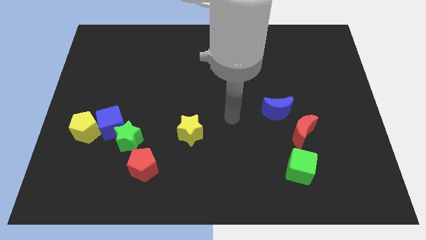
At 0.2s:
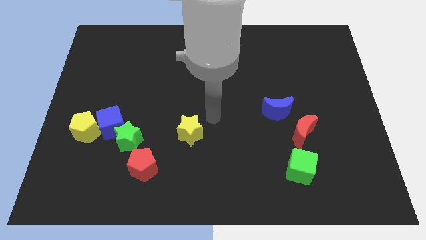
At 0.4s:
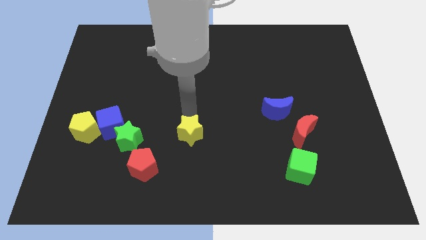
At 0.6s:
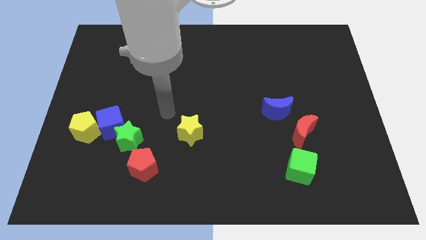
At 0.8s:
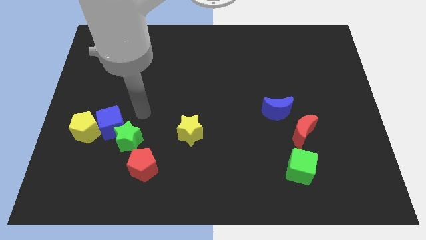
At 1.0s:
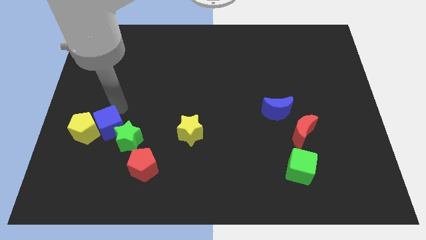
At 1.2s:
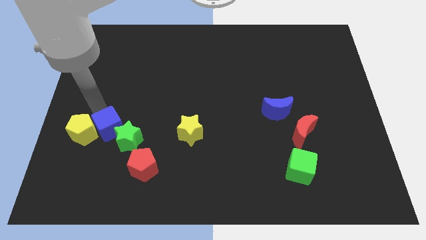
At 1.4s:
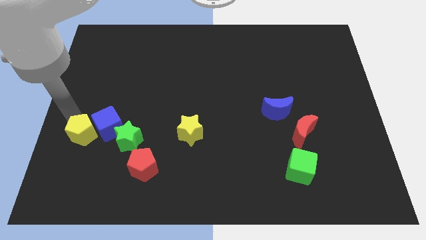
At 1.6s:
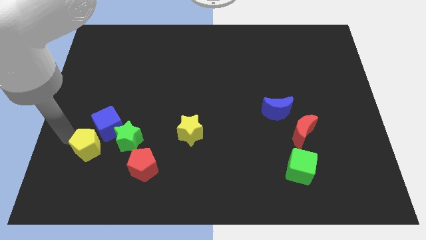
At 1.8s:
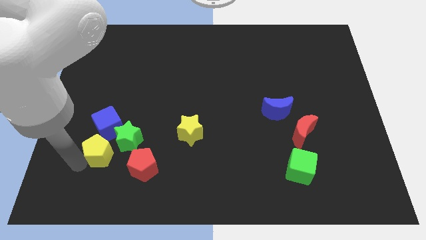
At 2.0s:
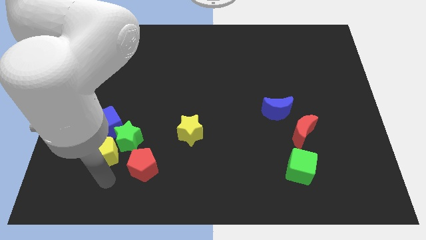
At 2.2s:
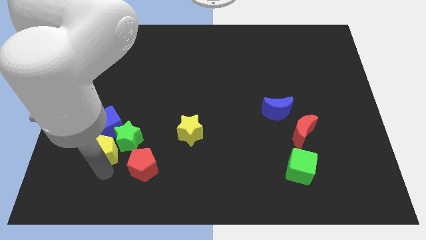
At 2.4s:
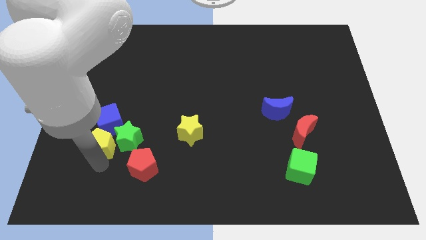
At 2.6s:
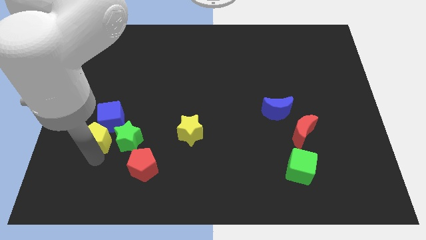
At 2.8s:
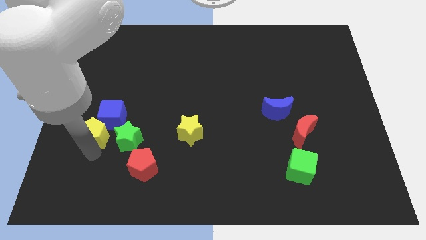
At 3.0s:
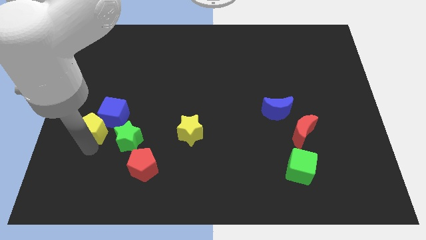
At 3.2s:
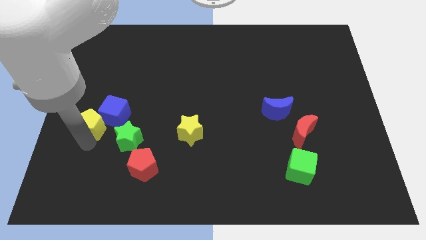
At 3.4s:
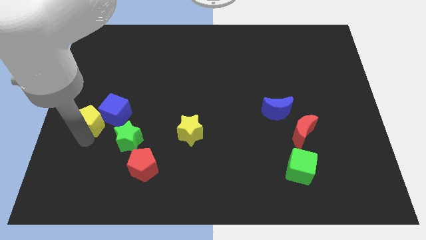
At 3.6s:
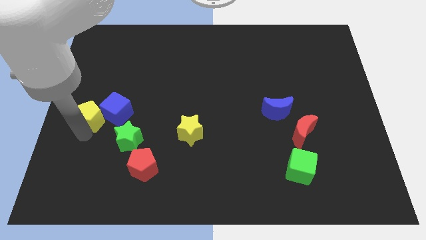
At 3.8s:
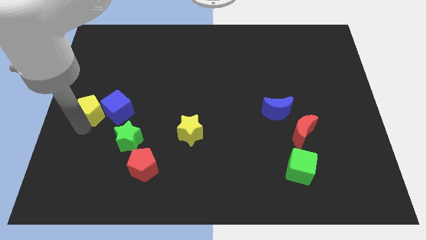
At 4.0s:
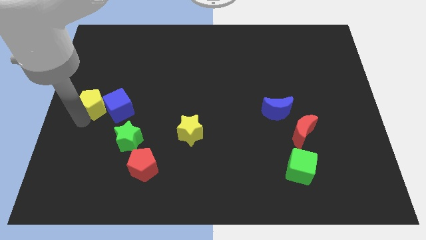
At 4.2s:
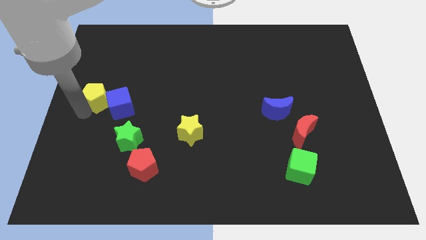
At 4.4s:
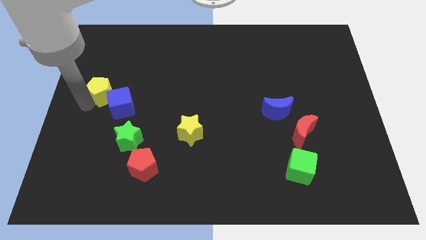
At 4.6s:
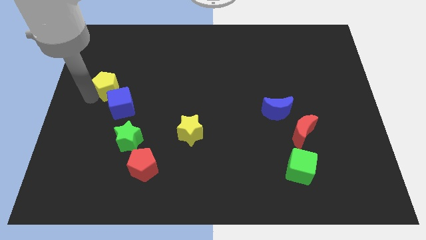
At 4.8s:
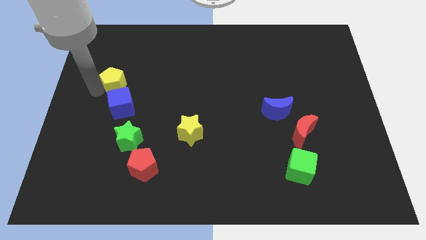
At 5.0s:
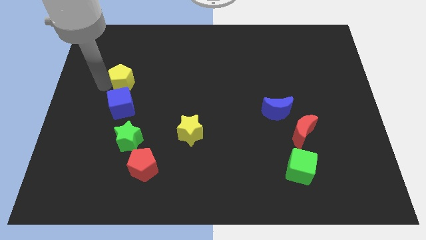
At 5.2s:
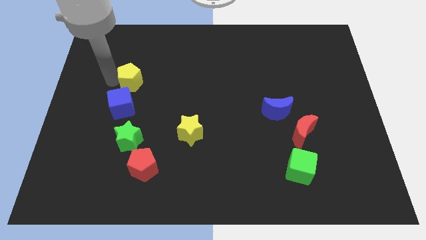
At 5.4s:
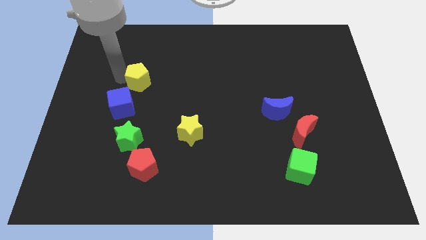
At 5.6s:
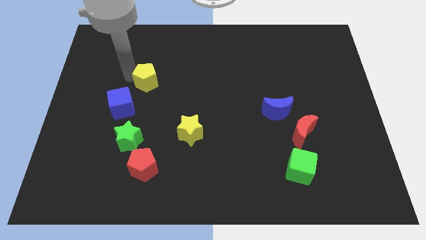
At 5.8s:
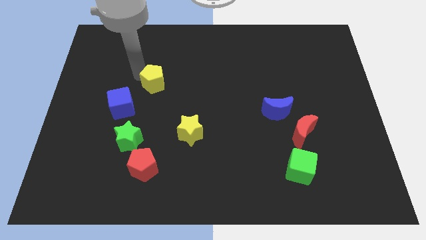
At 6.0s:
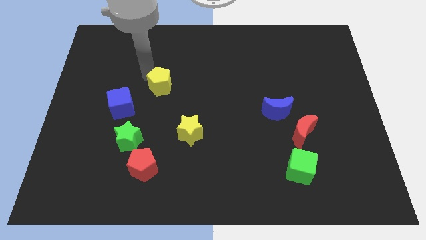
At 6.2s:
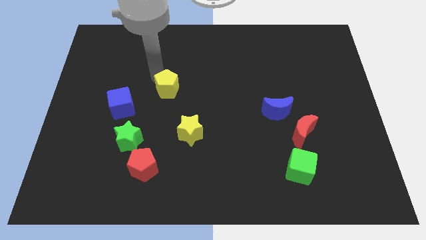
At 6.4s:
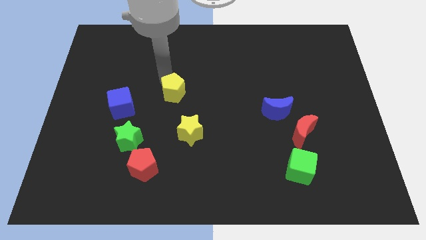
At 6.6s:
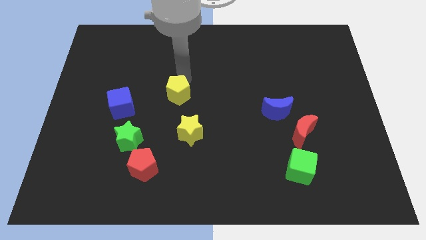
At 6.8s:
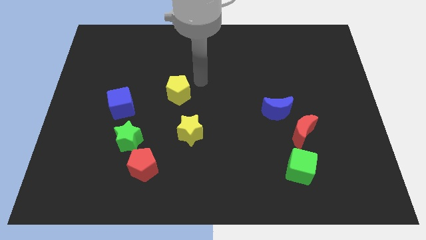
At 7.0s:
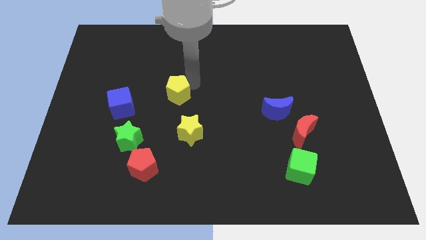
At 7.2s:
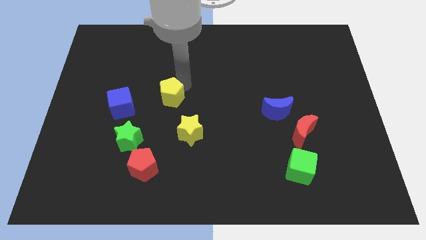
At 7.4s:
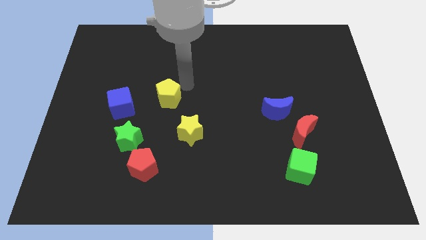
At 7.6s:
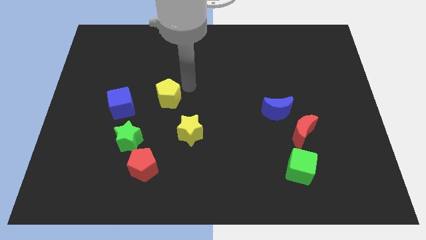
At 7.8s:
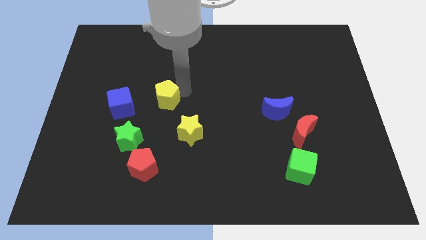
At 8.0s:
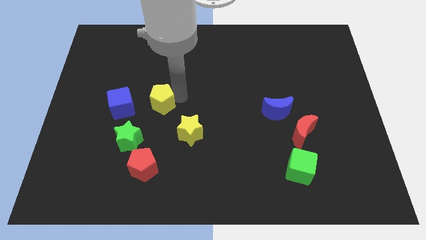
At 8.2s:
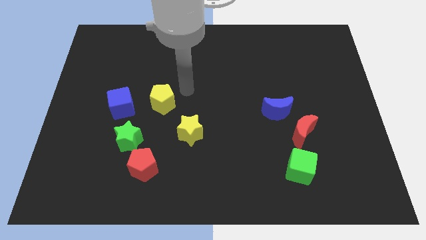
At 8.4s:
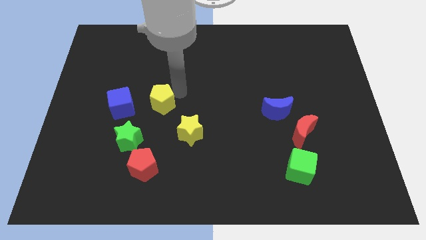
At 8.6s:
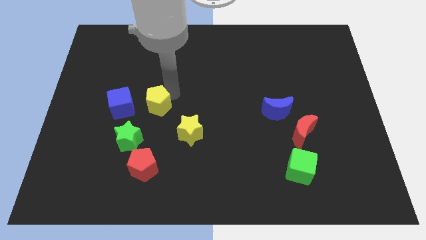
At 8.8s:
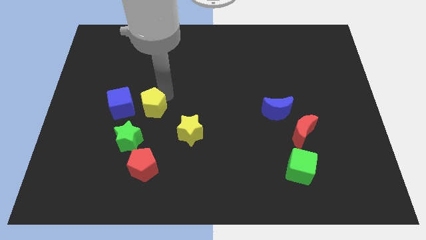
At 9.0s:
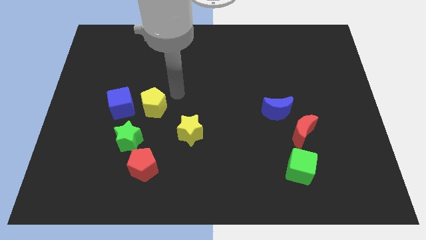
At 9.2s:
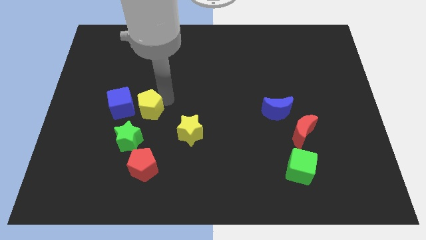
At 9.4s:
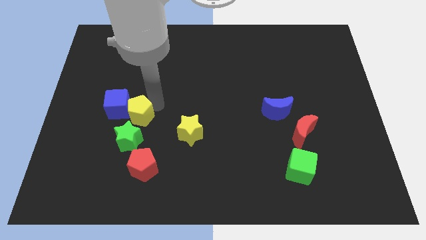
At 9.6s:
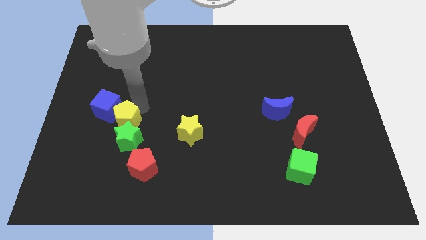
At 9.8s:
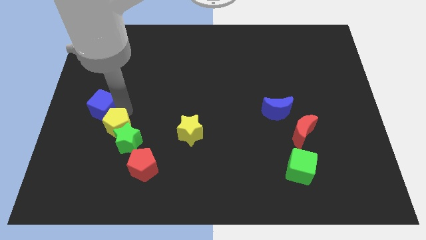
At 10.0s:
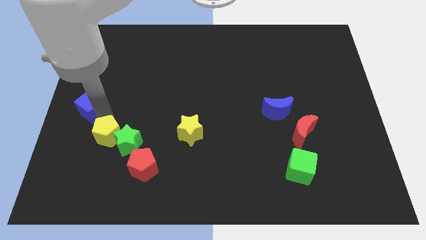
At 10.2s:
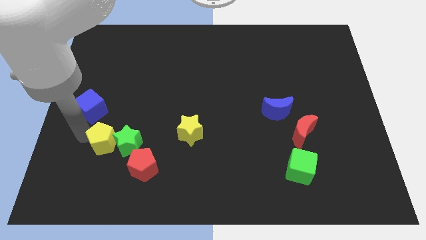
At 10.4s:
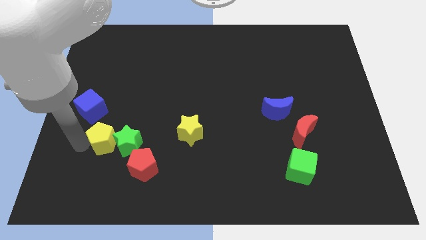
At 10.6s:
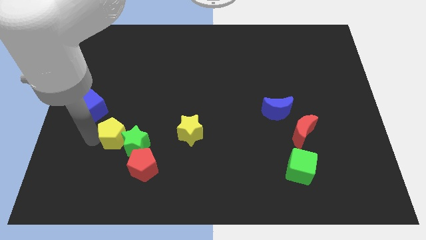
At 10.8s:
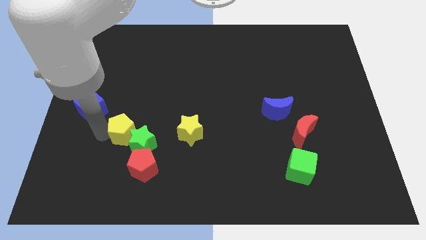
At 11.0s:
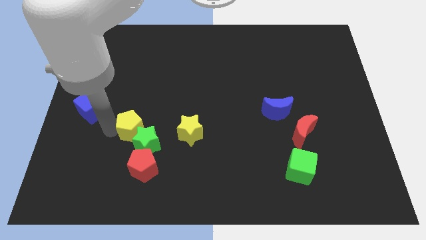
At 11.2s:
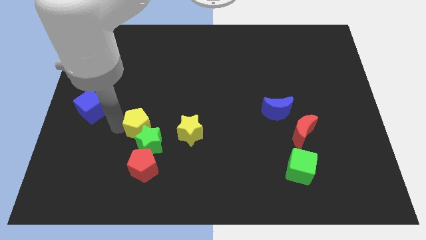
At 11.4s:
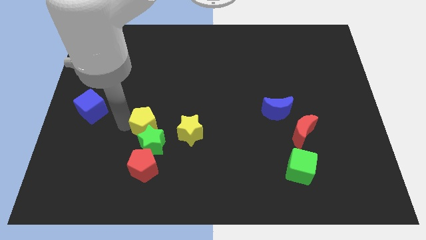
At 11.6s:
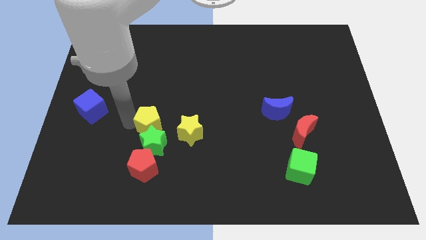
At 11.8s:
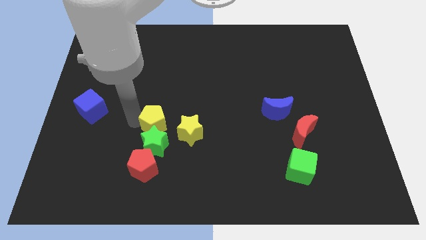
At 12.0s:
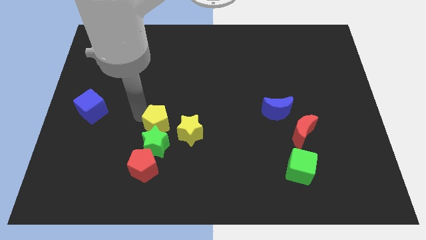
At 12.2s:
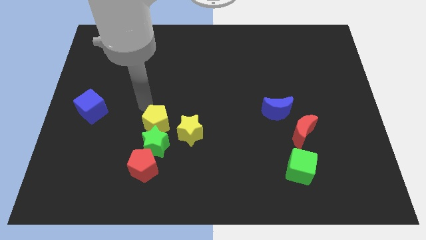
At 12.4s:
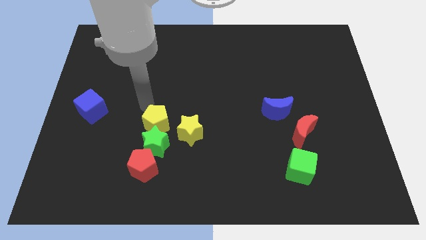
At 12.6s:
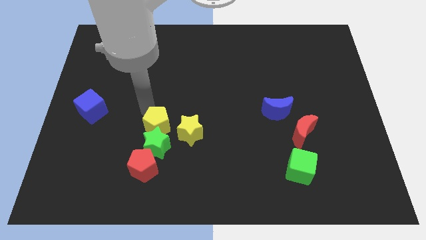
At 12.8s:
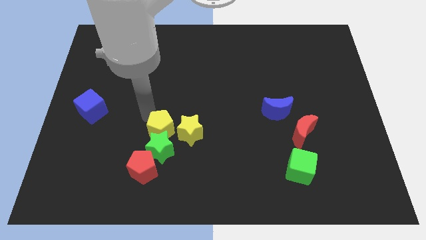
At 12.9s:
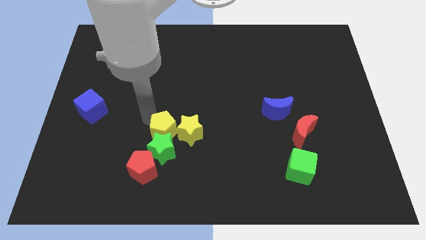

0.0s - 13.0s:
push the yellow pentagon to the top right side of the red pentagon
